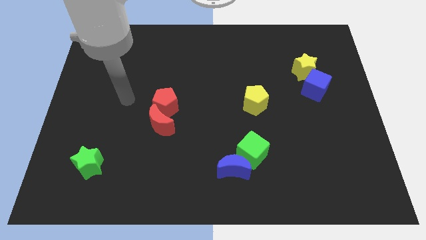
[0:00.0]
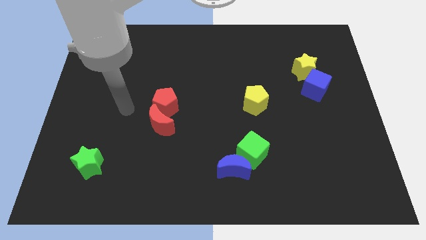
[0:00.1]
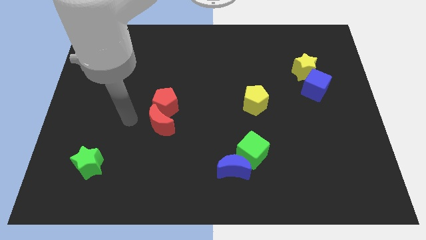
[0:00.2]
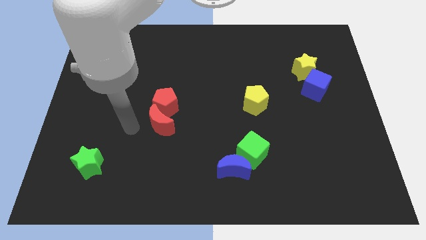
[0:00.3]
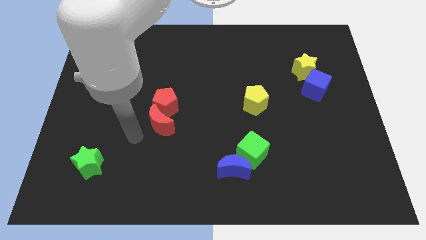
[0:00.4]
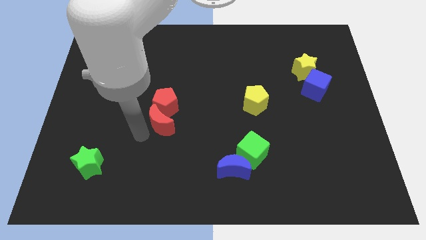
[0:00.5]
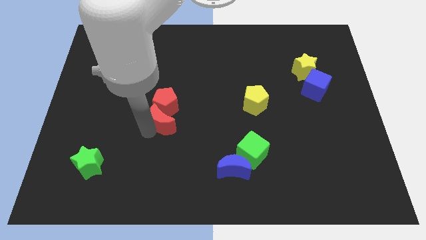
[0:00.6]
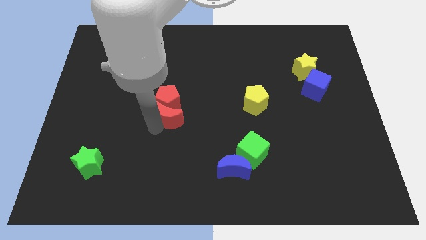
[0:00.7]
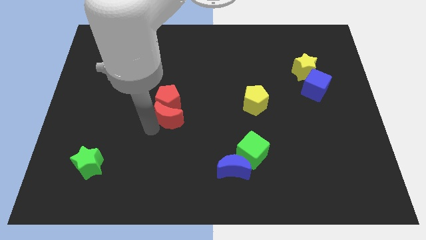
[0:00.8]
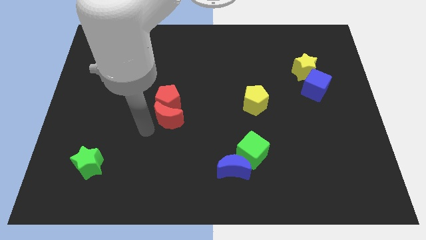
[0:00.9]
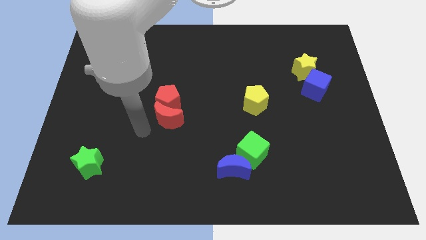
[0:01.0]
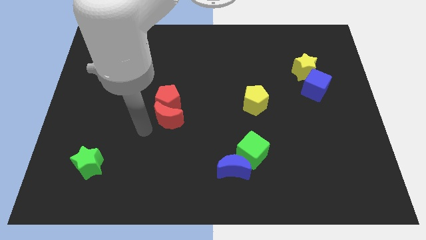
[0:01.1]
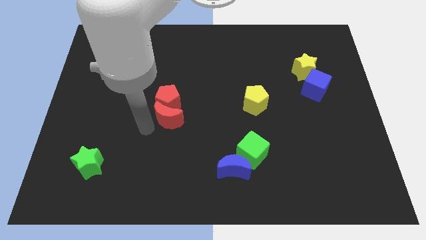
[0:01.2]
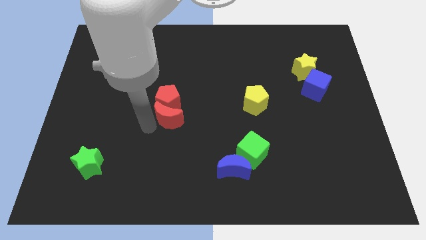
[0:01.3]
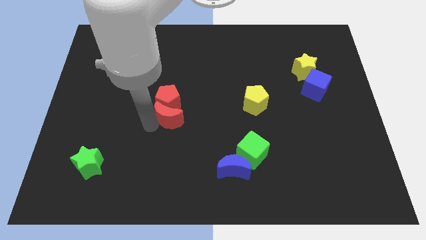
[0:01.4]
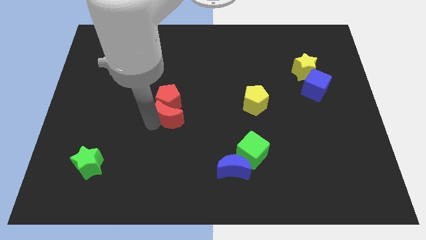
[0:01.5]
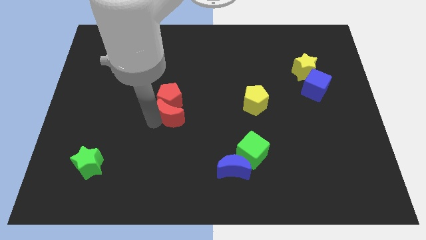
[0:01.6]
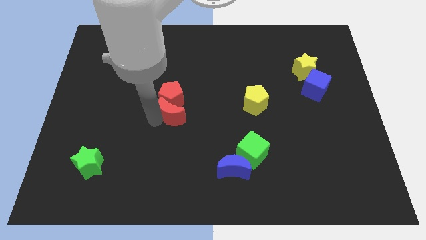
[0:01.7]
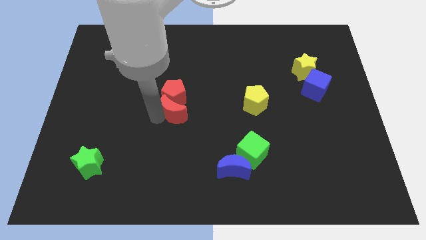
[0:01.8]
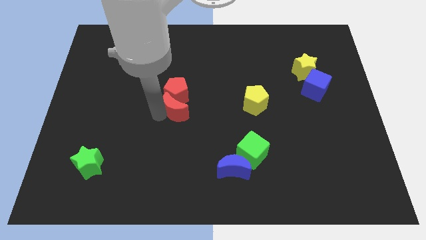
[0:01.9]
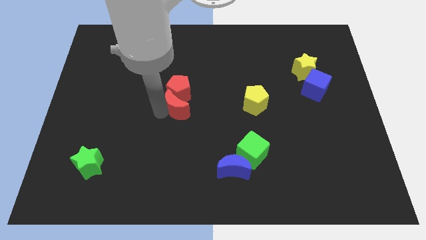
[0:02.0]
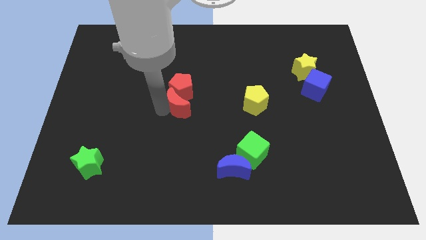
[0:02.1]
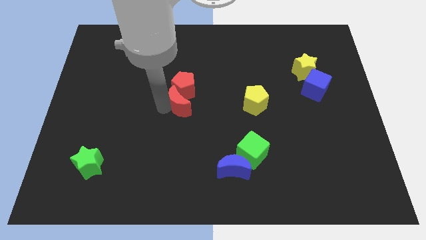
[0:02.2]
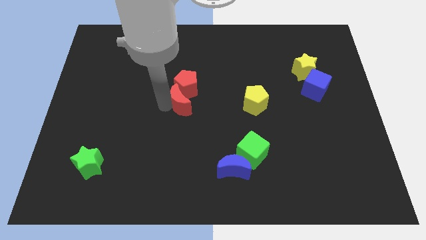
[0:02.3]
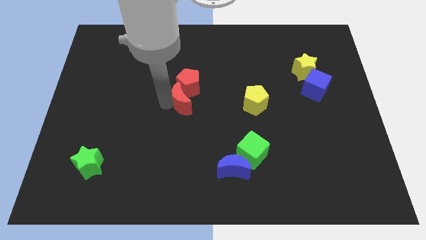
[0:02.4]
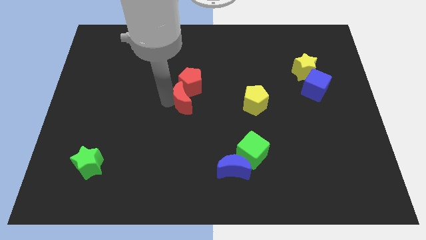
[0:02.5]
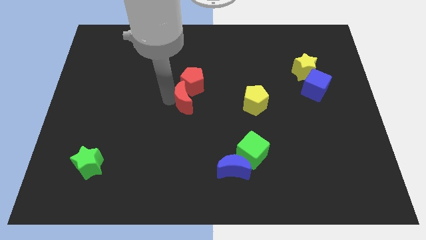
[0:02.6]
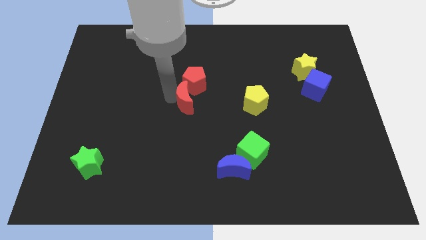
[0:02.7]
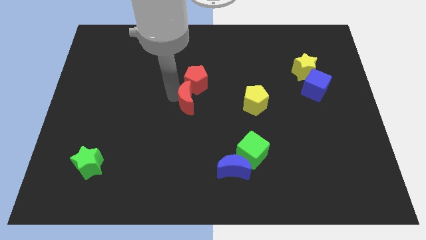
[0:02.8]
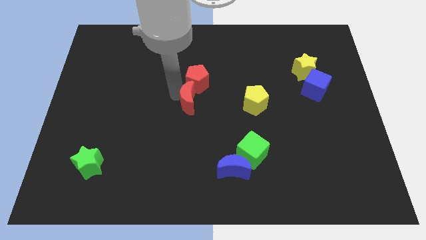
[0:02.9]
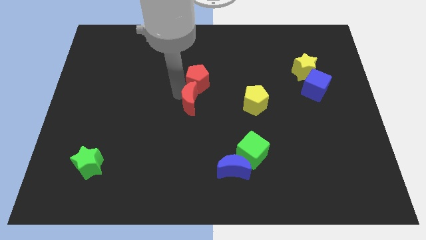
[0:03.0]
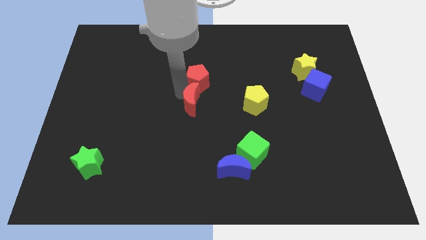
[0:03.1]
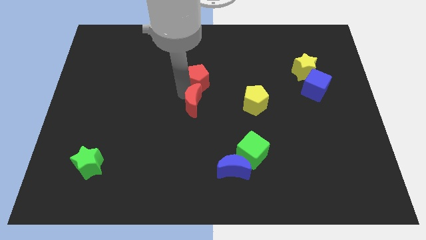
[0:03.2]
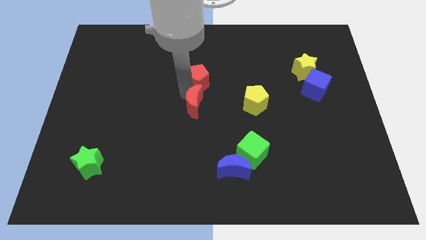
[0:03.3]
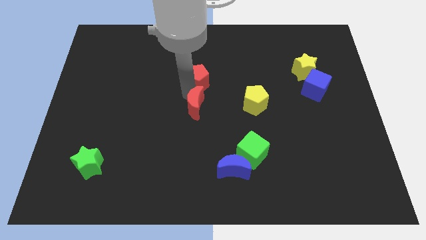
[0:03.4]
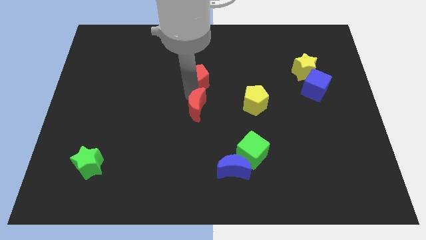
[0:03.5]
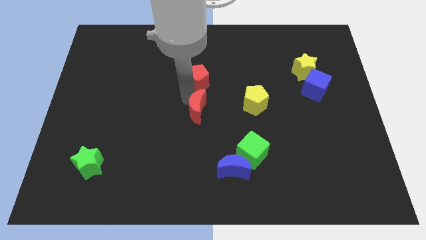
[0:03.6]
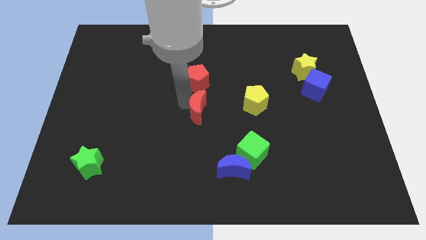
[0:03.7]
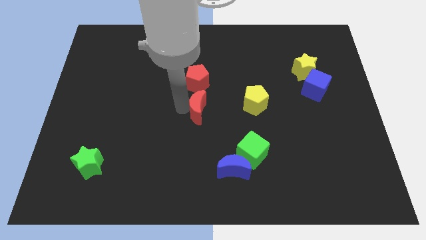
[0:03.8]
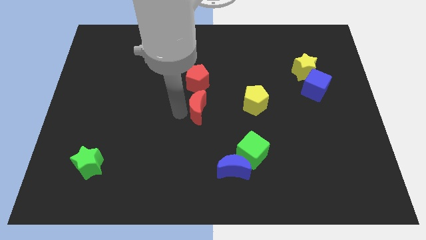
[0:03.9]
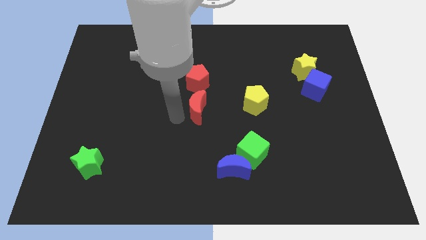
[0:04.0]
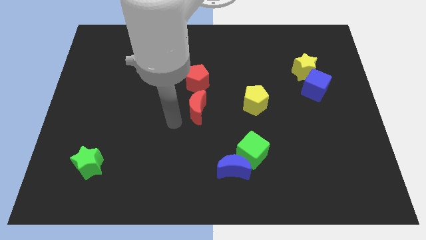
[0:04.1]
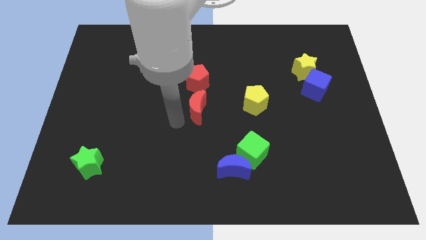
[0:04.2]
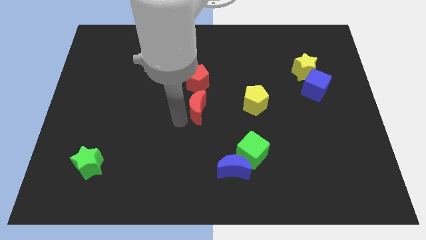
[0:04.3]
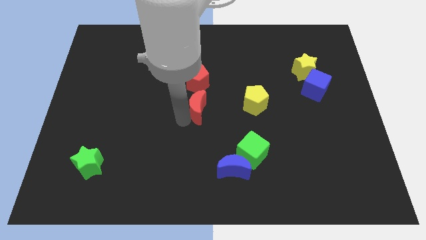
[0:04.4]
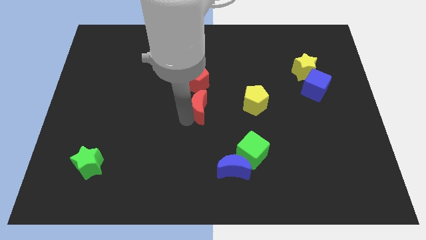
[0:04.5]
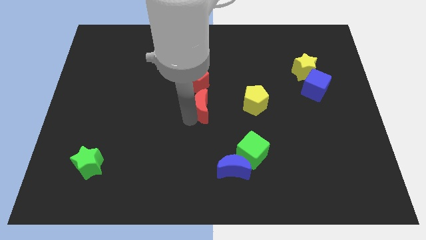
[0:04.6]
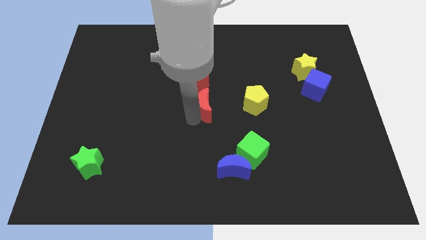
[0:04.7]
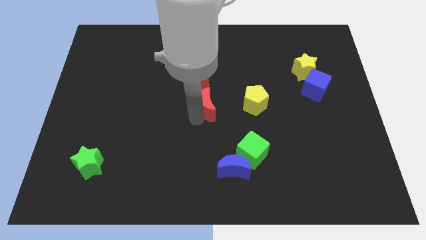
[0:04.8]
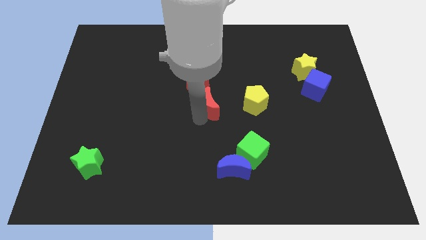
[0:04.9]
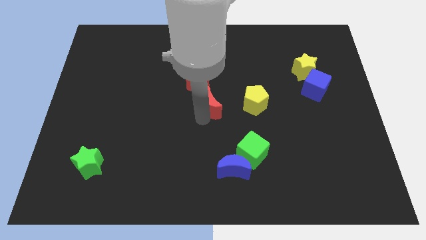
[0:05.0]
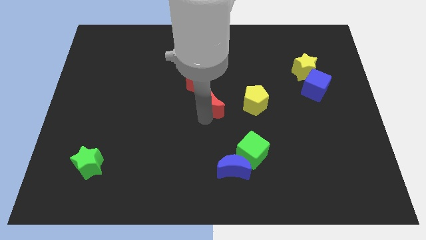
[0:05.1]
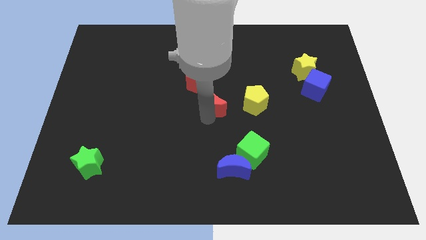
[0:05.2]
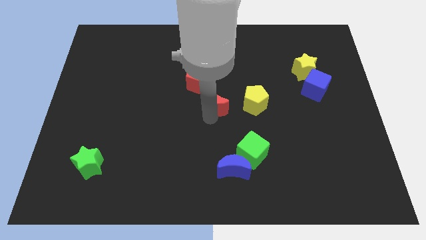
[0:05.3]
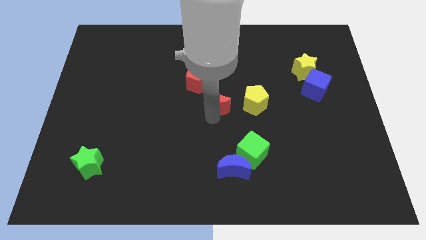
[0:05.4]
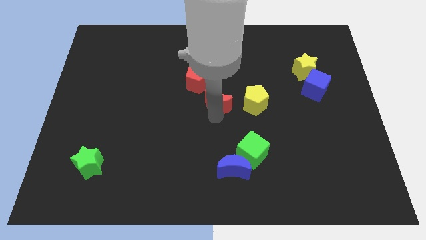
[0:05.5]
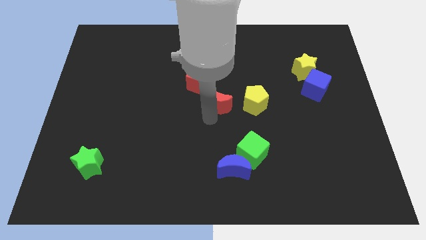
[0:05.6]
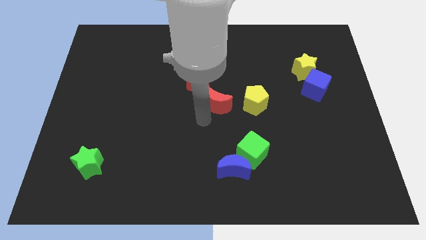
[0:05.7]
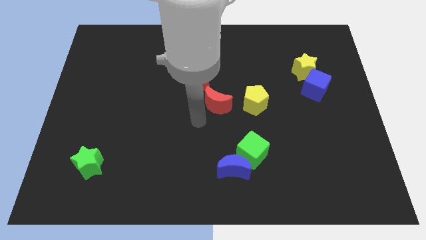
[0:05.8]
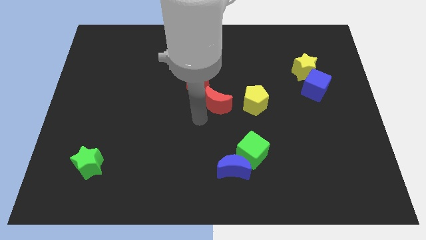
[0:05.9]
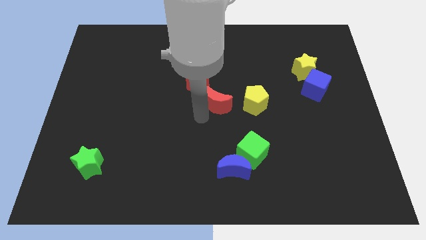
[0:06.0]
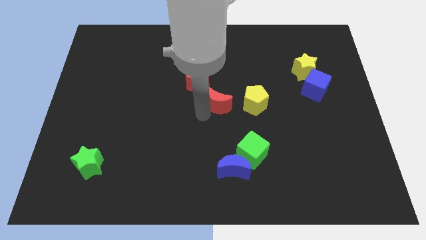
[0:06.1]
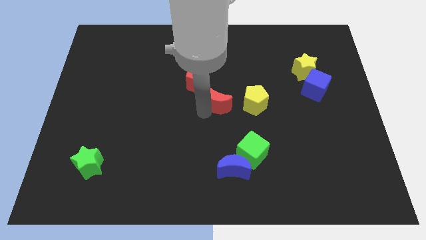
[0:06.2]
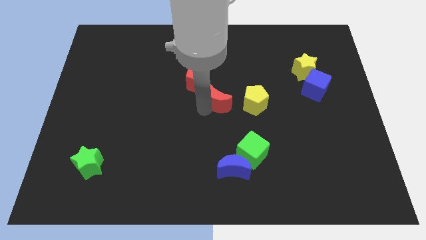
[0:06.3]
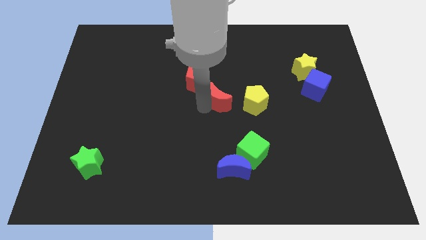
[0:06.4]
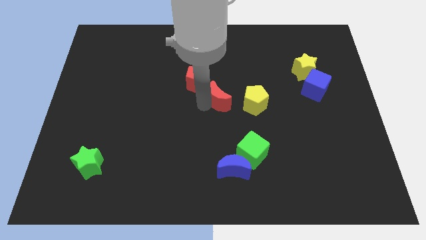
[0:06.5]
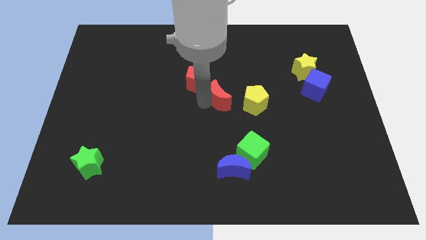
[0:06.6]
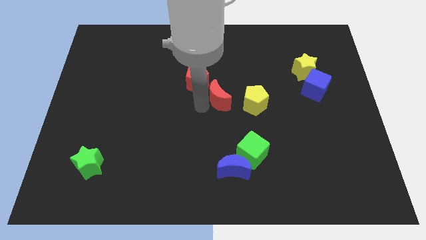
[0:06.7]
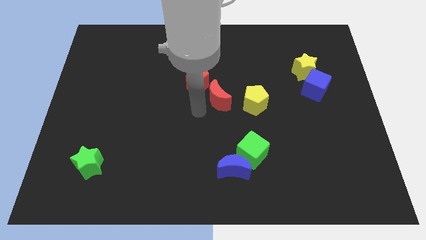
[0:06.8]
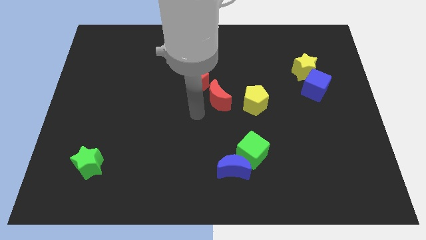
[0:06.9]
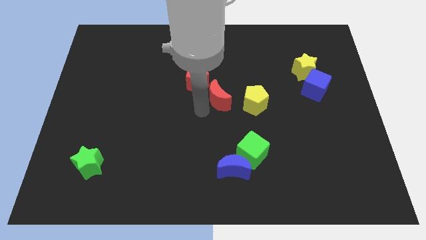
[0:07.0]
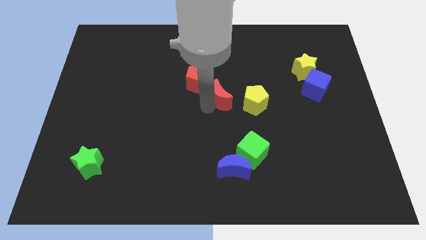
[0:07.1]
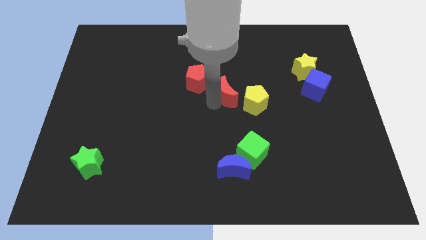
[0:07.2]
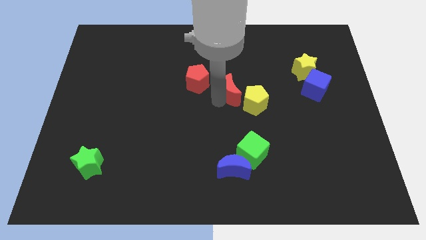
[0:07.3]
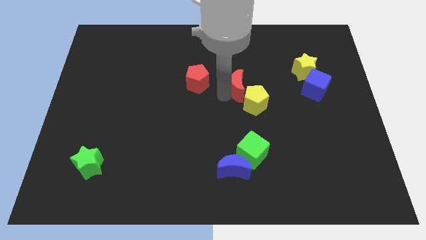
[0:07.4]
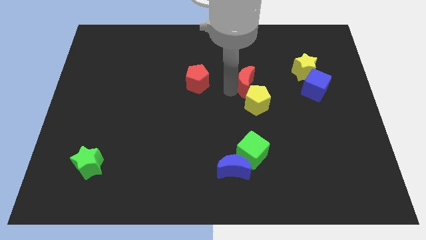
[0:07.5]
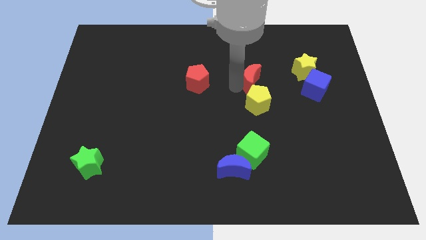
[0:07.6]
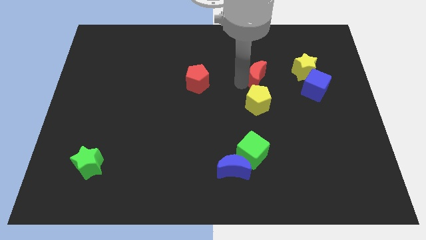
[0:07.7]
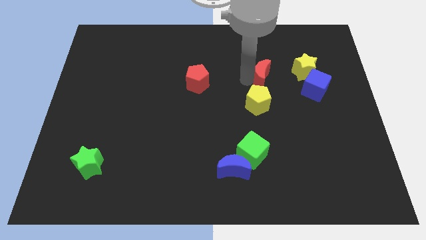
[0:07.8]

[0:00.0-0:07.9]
put the red moon to the top right of the yellow pentagon
